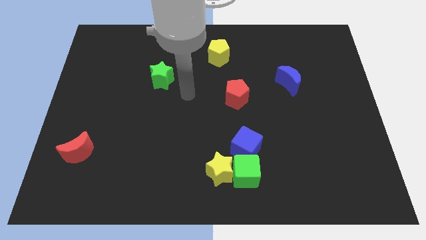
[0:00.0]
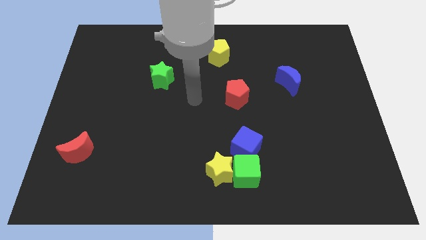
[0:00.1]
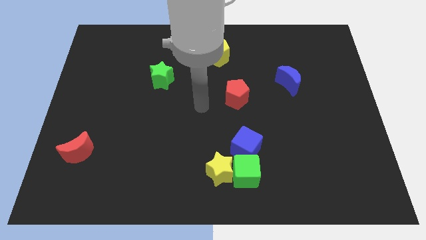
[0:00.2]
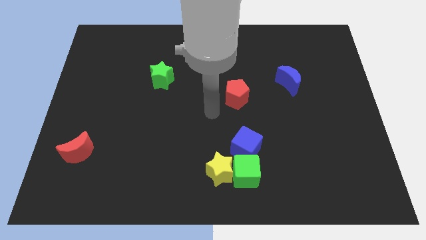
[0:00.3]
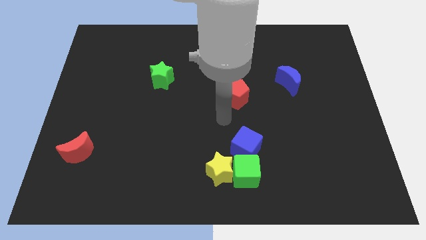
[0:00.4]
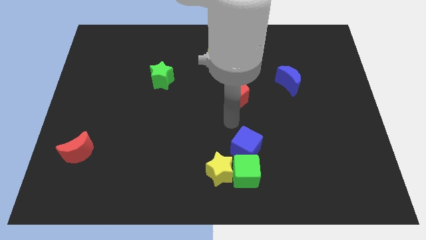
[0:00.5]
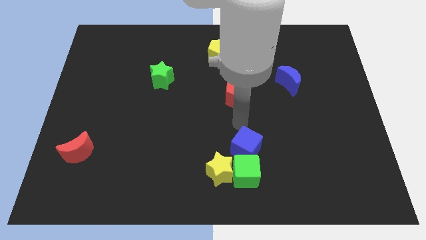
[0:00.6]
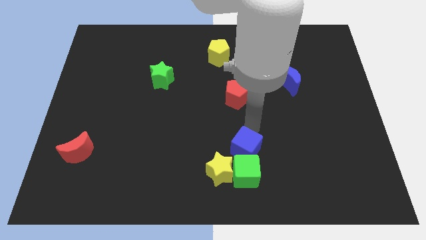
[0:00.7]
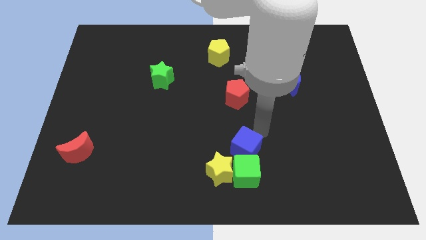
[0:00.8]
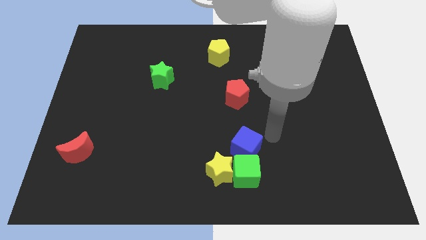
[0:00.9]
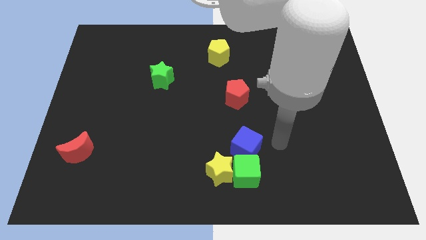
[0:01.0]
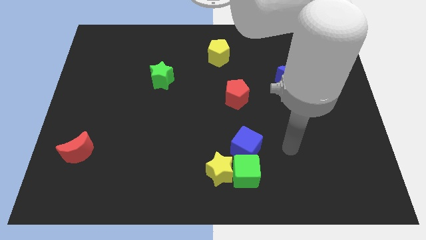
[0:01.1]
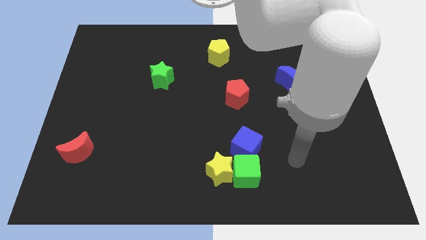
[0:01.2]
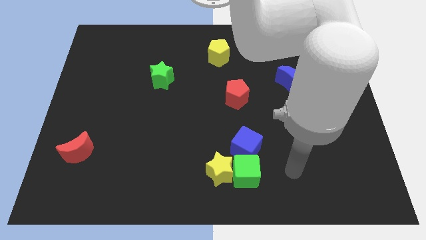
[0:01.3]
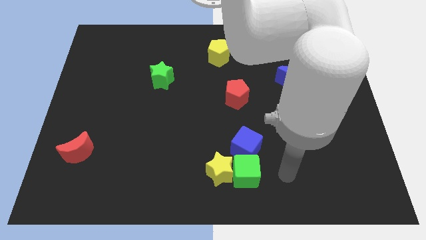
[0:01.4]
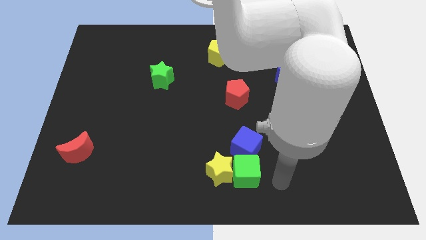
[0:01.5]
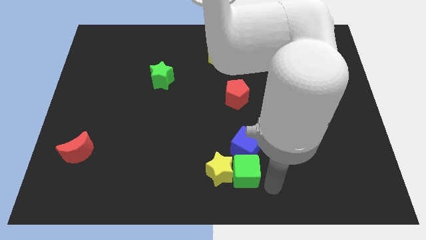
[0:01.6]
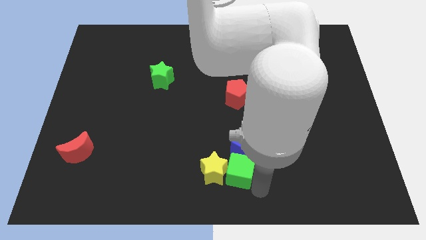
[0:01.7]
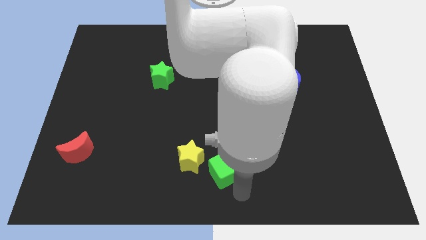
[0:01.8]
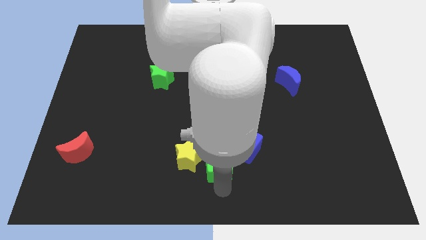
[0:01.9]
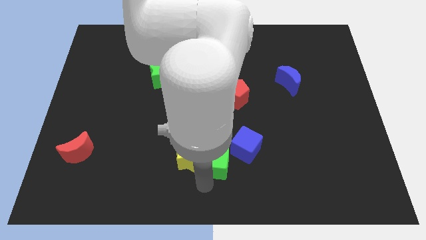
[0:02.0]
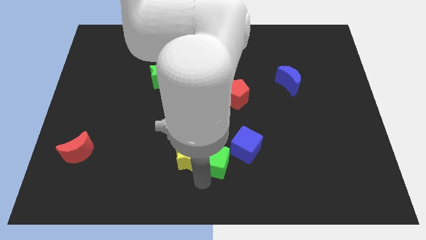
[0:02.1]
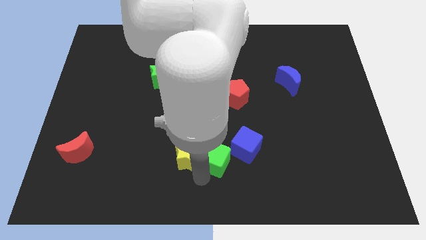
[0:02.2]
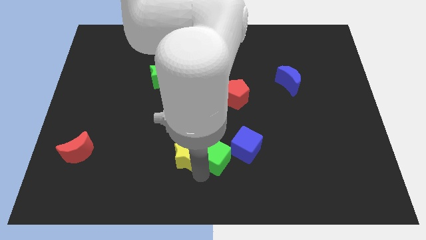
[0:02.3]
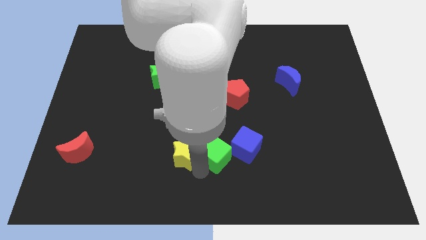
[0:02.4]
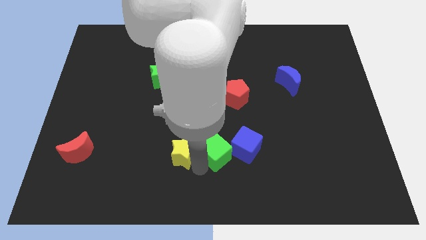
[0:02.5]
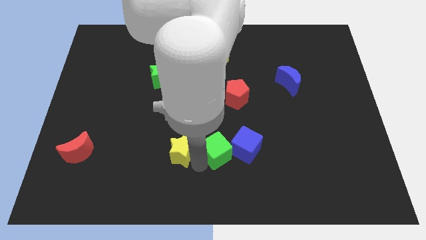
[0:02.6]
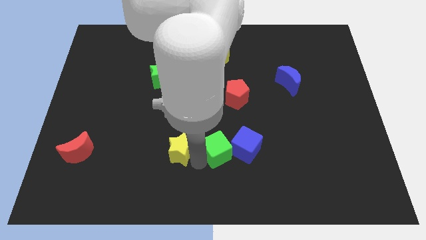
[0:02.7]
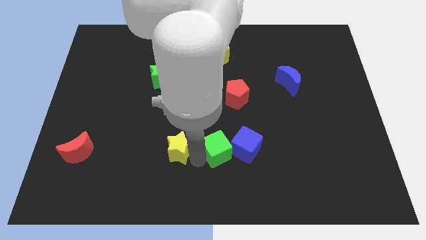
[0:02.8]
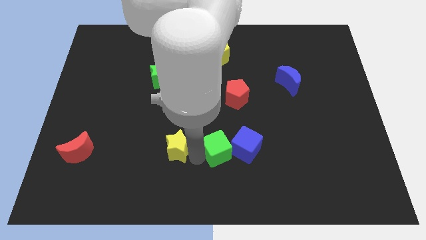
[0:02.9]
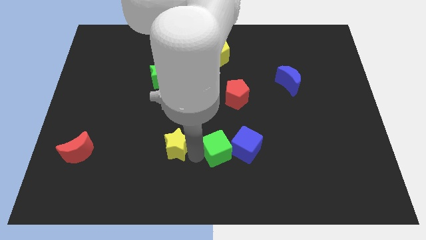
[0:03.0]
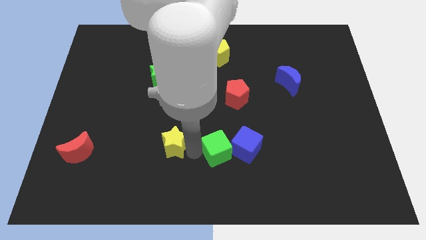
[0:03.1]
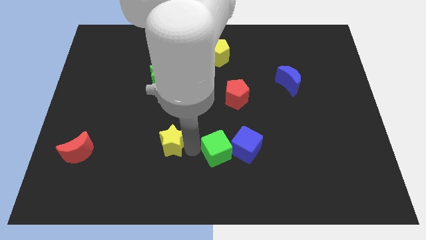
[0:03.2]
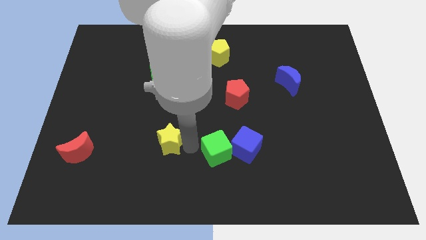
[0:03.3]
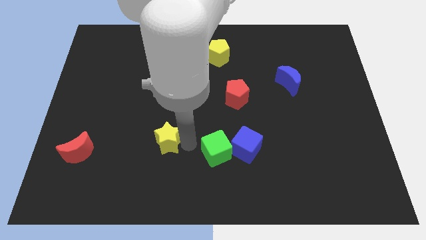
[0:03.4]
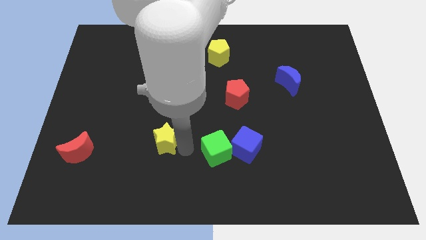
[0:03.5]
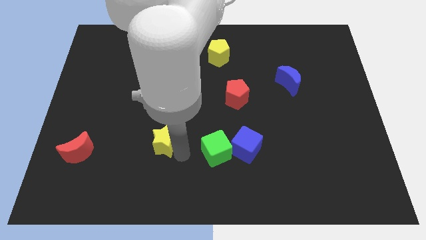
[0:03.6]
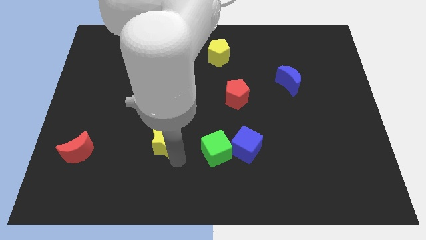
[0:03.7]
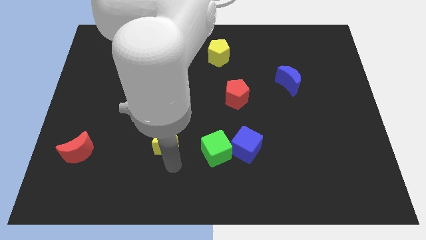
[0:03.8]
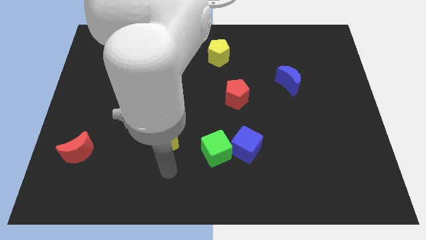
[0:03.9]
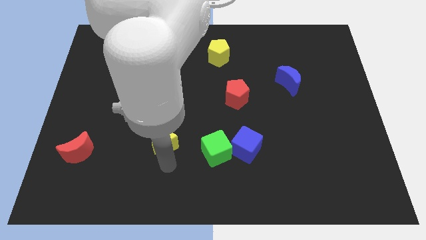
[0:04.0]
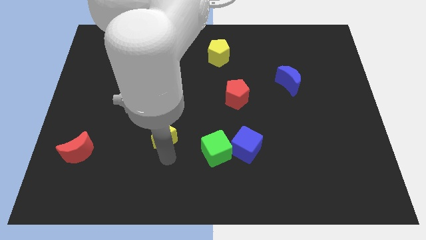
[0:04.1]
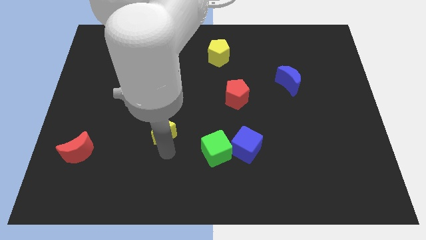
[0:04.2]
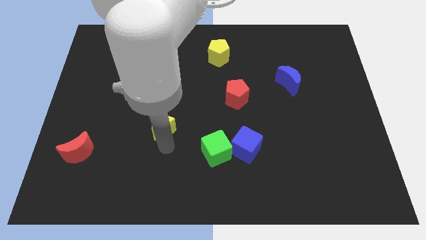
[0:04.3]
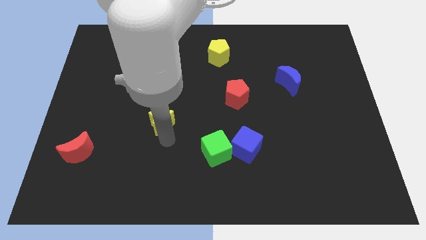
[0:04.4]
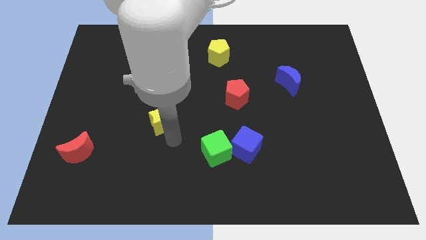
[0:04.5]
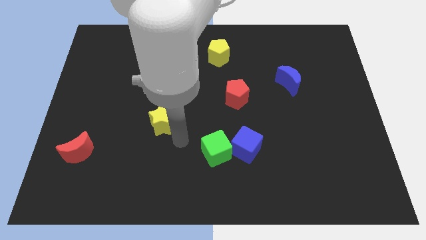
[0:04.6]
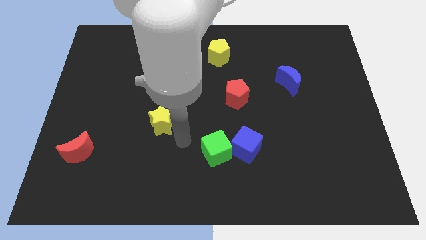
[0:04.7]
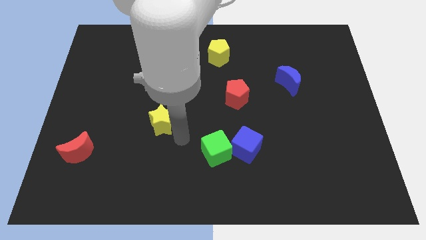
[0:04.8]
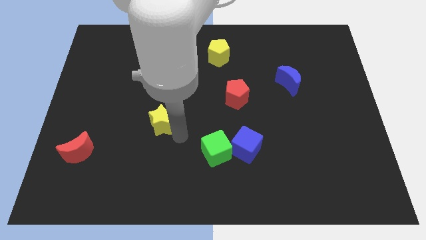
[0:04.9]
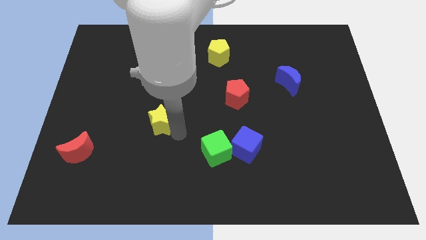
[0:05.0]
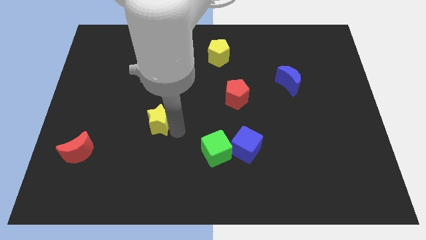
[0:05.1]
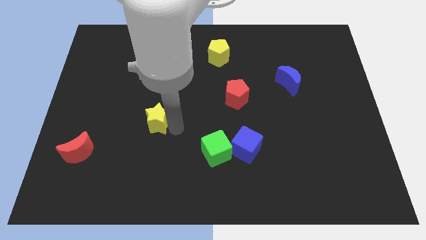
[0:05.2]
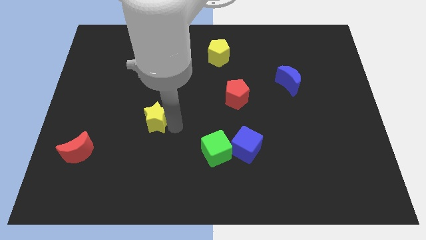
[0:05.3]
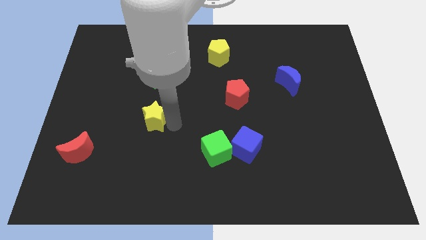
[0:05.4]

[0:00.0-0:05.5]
push the yellow star up and then to the left

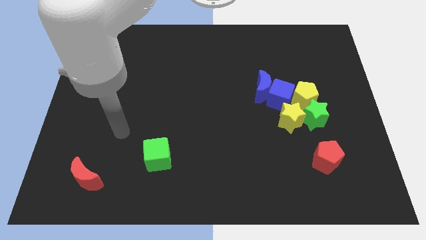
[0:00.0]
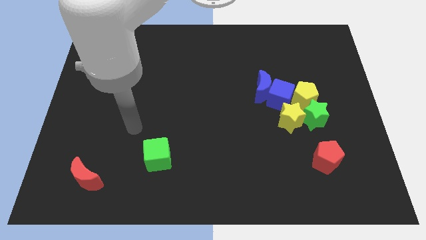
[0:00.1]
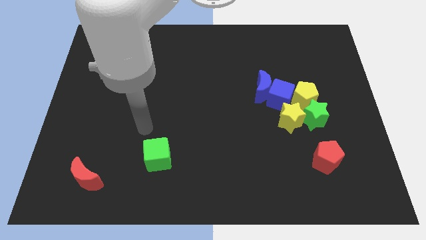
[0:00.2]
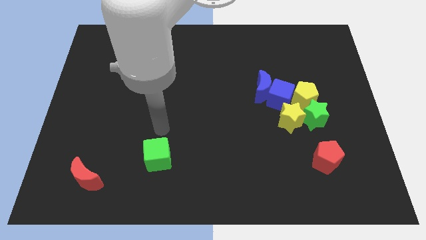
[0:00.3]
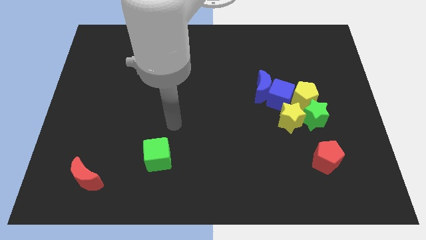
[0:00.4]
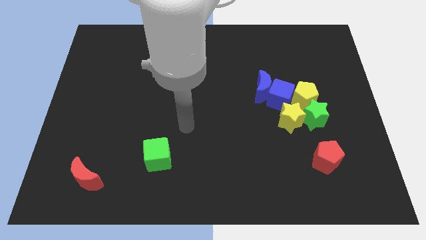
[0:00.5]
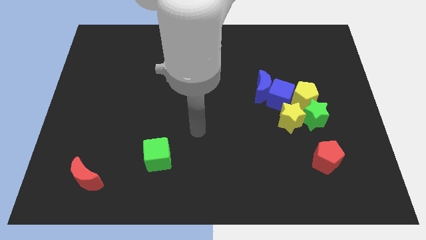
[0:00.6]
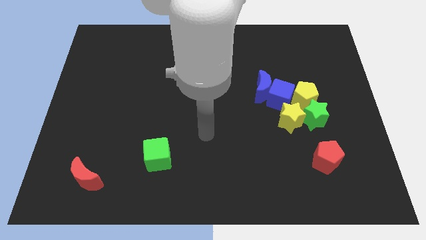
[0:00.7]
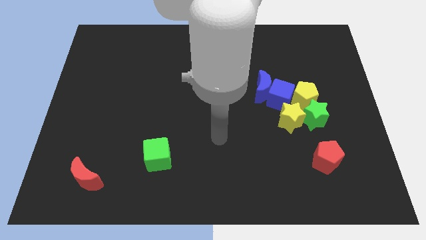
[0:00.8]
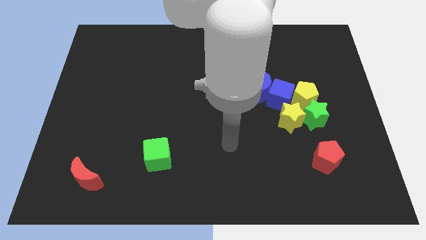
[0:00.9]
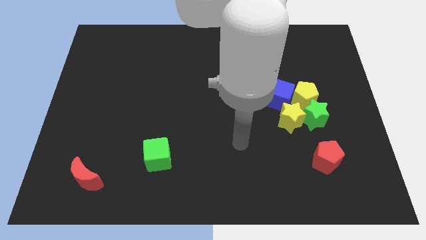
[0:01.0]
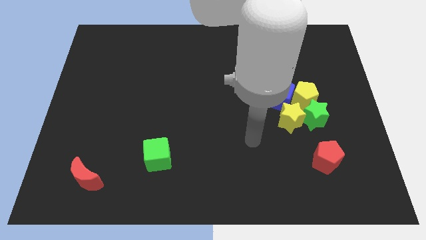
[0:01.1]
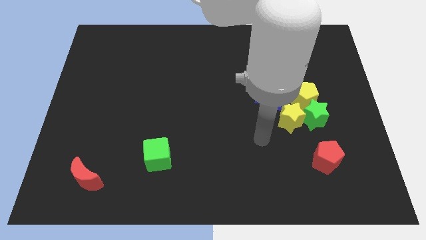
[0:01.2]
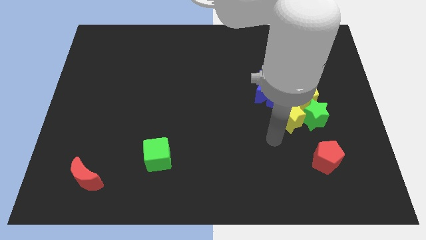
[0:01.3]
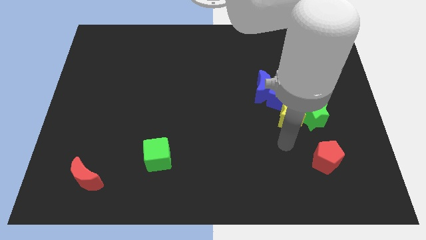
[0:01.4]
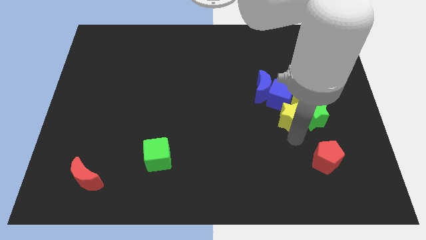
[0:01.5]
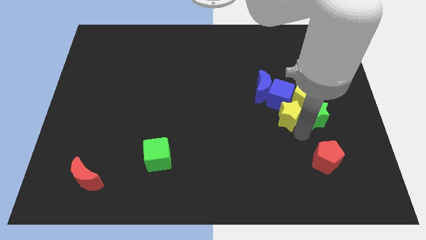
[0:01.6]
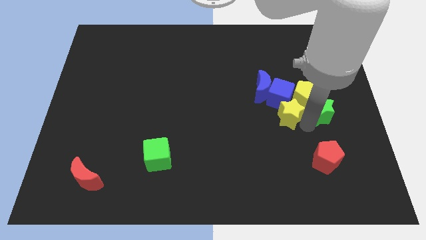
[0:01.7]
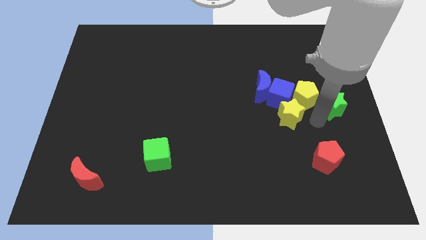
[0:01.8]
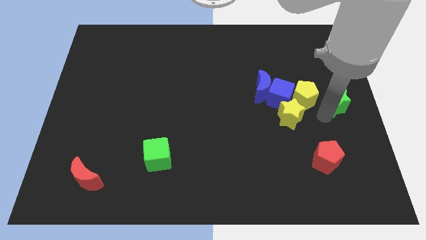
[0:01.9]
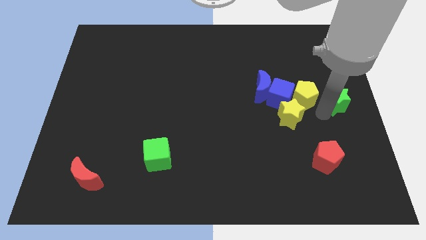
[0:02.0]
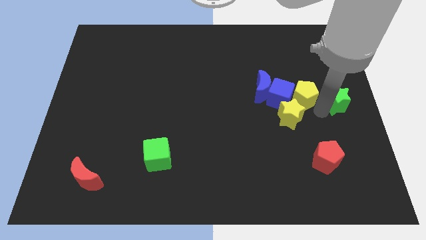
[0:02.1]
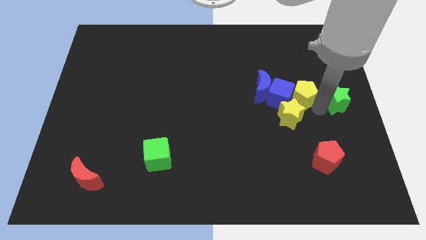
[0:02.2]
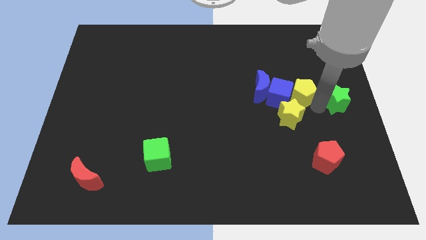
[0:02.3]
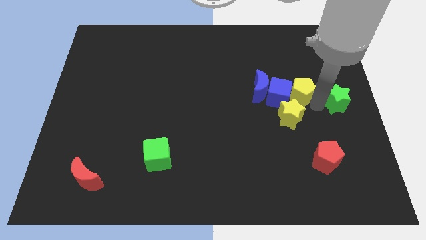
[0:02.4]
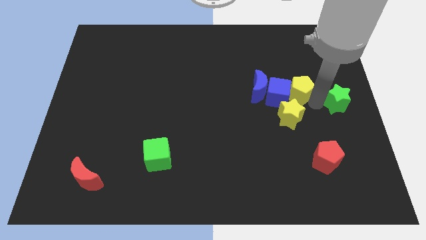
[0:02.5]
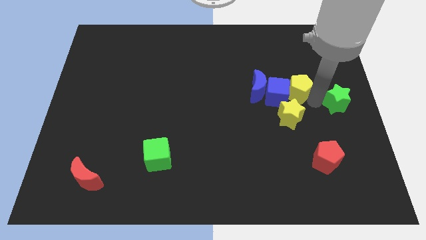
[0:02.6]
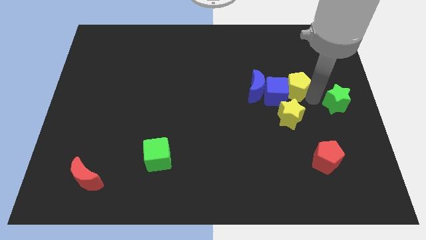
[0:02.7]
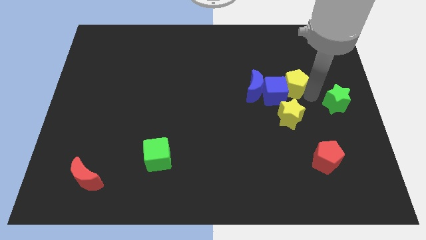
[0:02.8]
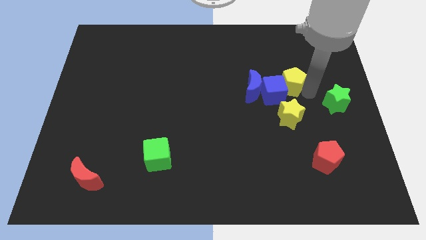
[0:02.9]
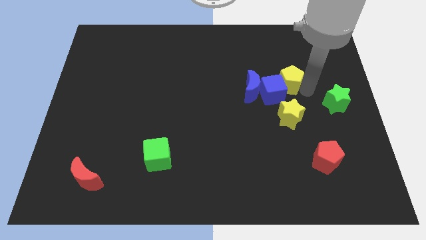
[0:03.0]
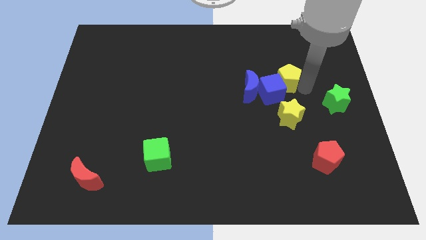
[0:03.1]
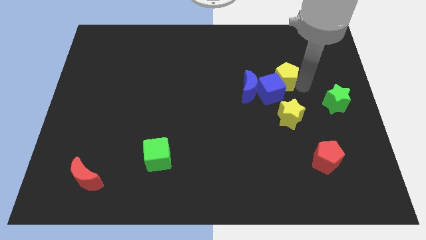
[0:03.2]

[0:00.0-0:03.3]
push the yellow pentagon somewhat upwards and left diagonally

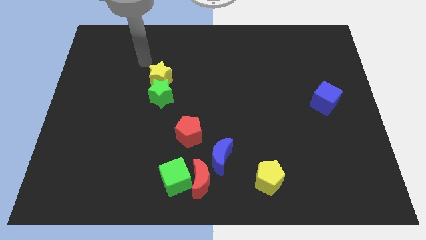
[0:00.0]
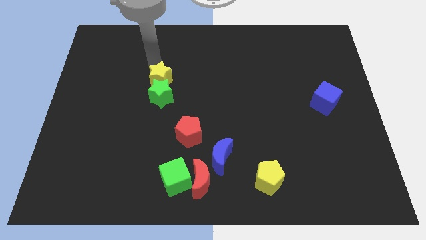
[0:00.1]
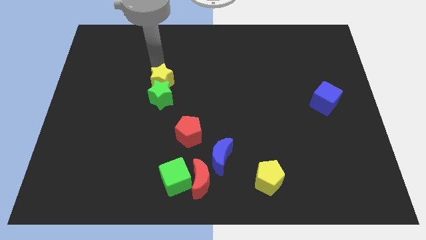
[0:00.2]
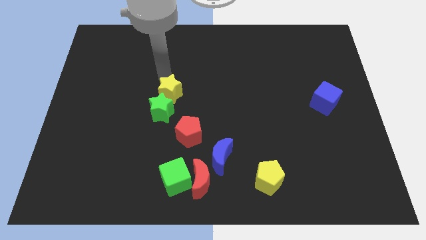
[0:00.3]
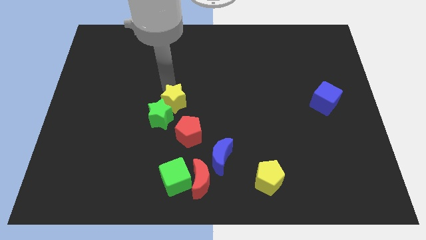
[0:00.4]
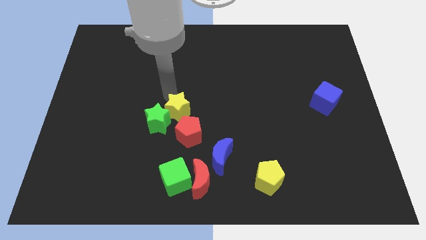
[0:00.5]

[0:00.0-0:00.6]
slide the green star down a bit
